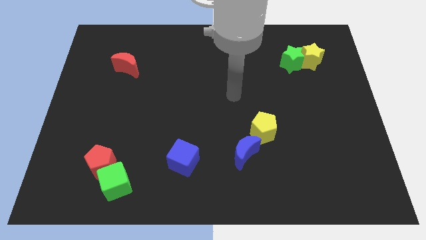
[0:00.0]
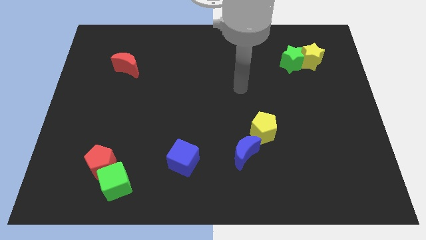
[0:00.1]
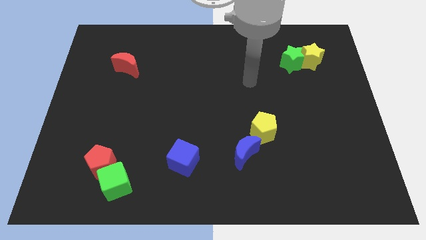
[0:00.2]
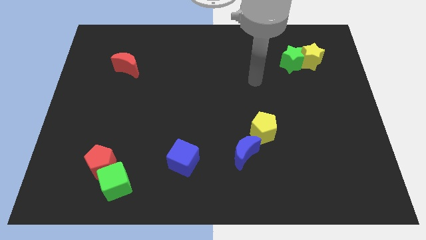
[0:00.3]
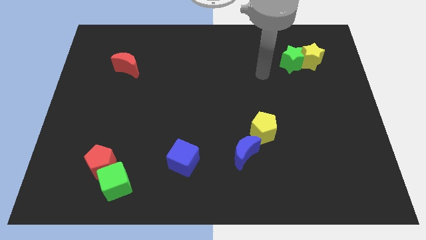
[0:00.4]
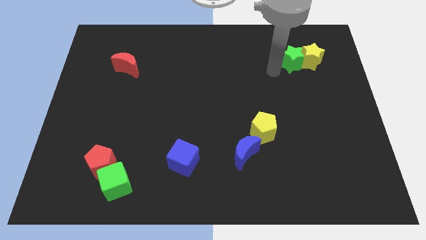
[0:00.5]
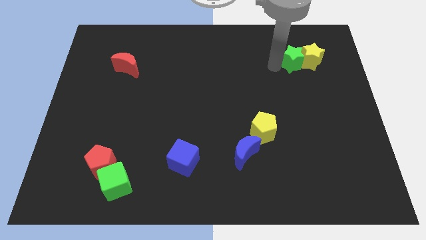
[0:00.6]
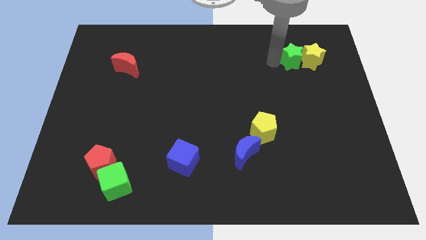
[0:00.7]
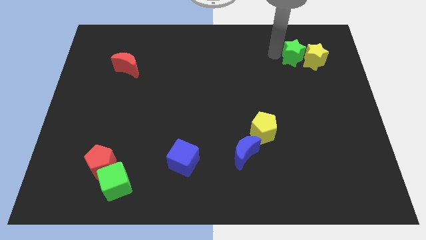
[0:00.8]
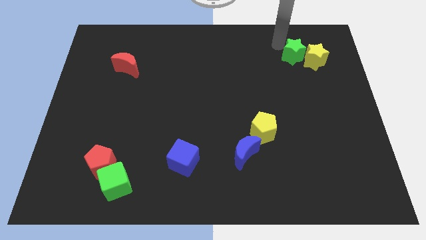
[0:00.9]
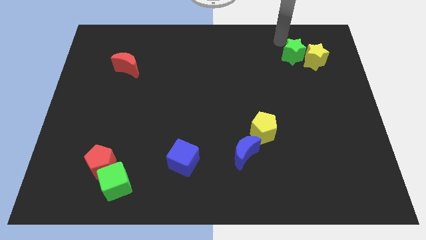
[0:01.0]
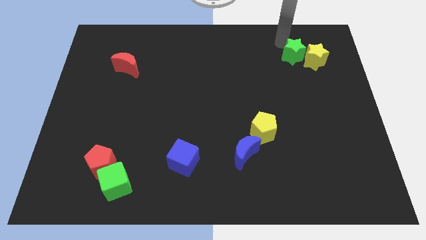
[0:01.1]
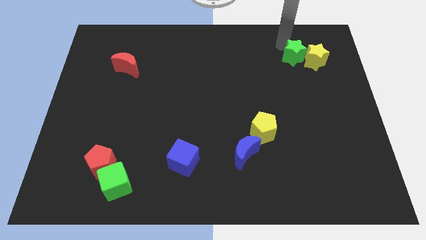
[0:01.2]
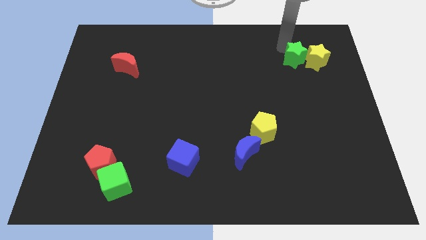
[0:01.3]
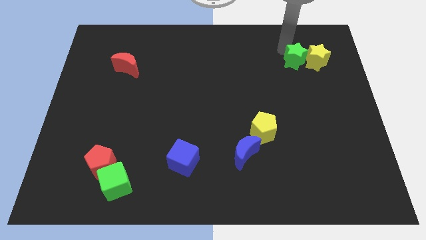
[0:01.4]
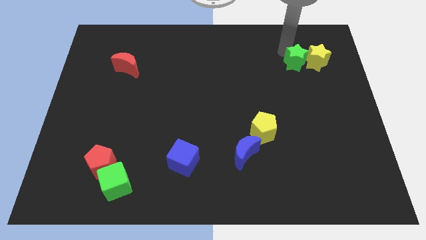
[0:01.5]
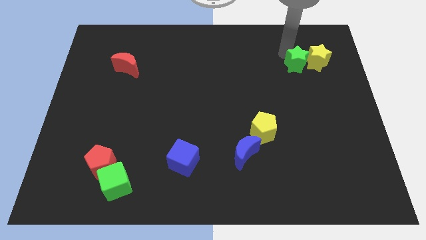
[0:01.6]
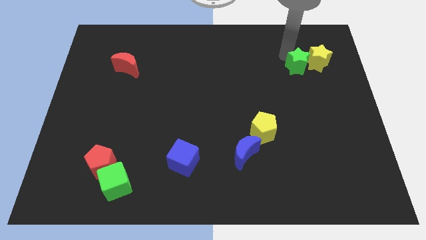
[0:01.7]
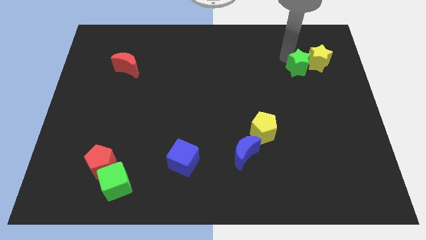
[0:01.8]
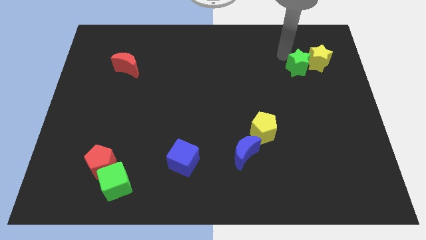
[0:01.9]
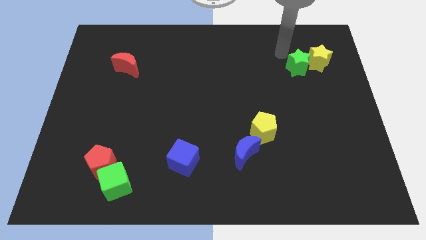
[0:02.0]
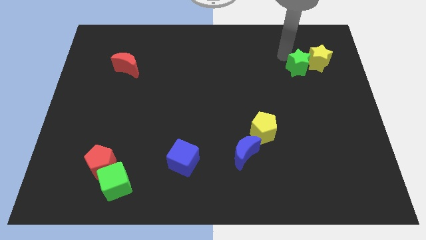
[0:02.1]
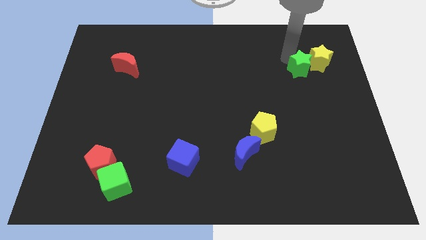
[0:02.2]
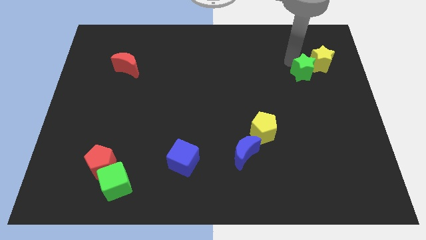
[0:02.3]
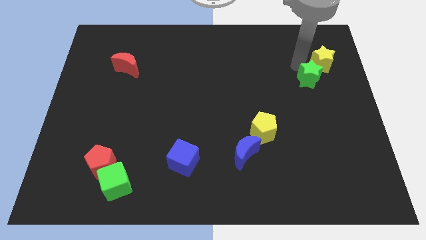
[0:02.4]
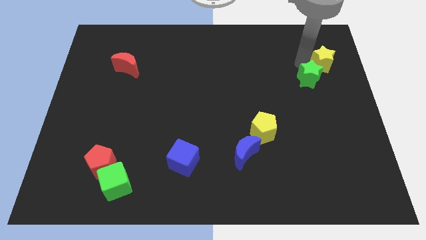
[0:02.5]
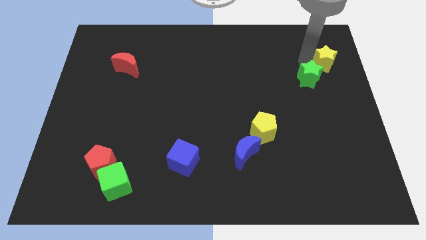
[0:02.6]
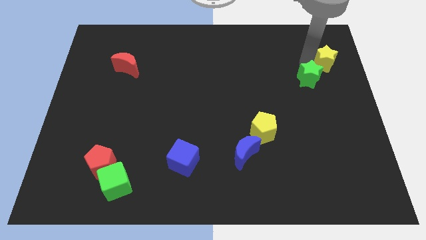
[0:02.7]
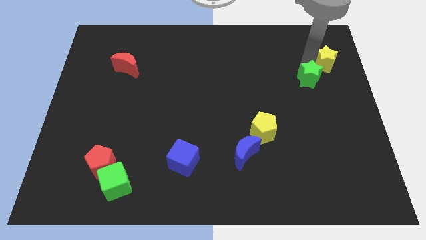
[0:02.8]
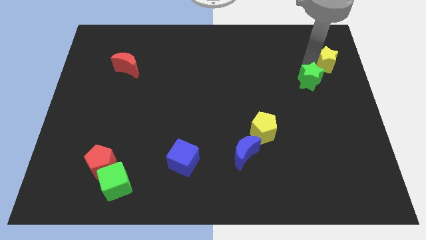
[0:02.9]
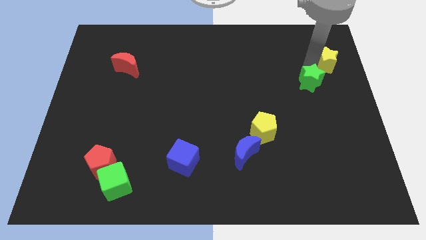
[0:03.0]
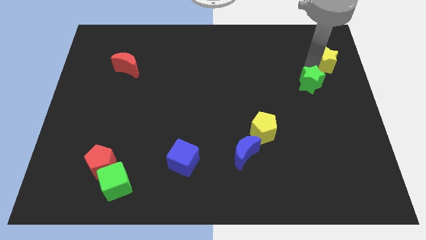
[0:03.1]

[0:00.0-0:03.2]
slide the green star somewhat downwards

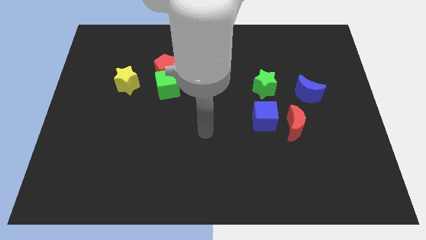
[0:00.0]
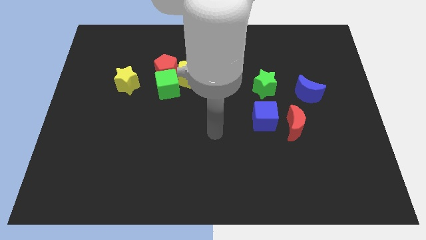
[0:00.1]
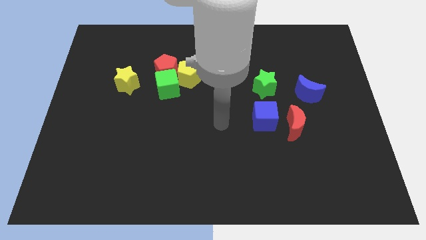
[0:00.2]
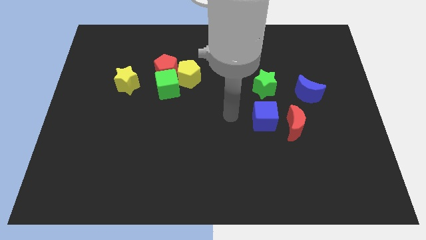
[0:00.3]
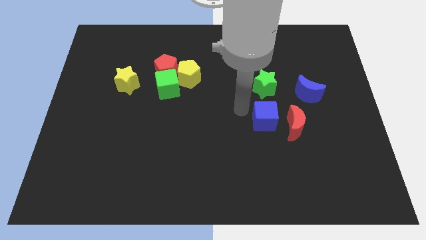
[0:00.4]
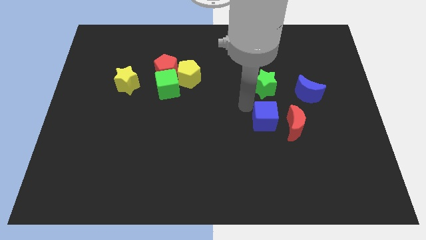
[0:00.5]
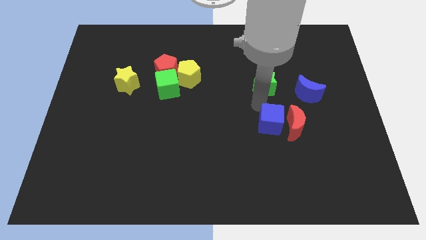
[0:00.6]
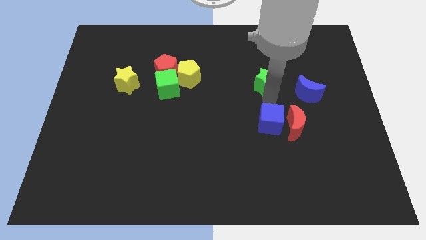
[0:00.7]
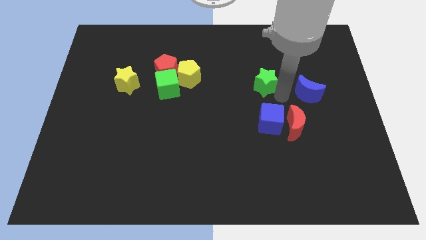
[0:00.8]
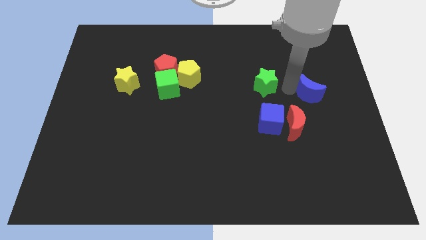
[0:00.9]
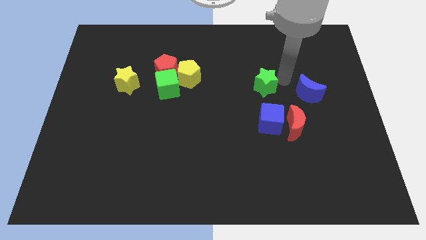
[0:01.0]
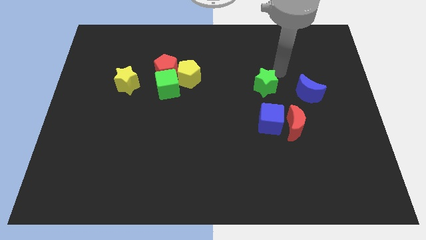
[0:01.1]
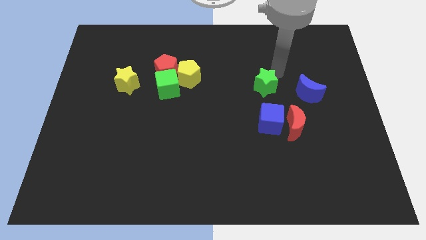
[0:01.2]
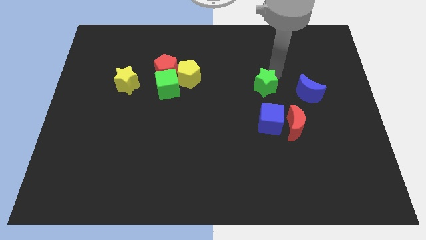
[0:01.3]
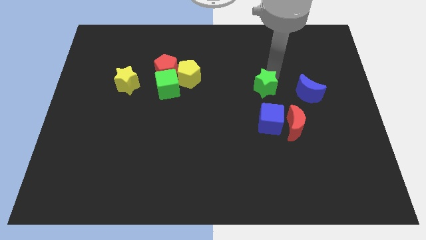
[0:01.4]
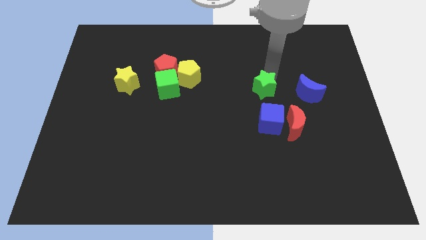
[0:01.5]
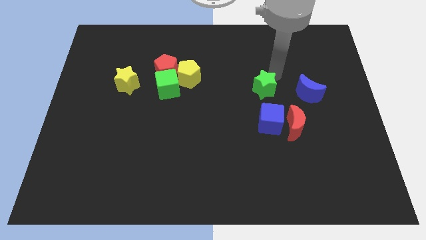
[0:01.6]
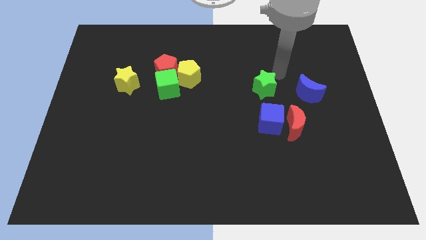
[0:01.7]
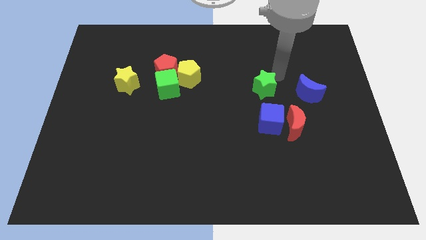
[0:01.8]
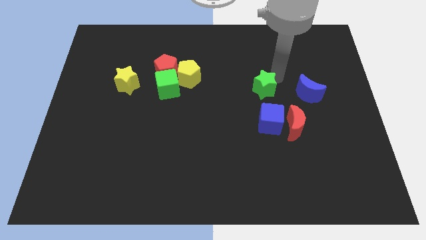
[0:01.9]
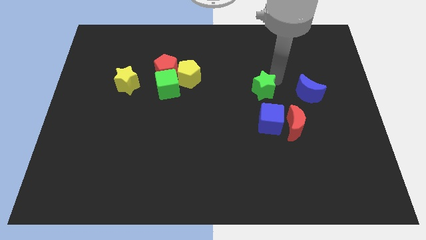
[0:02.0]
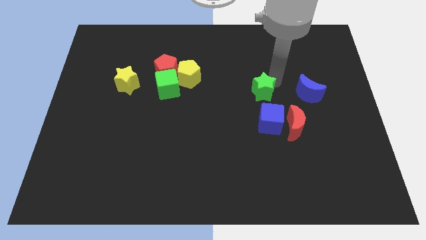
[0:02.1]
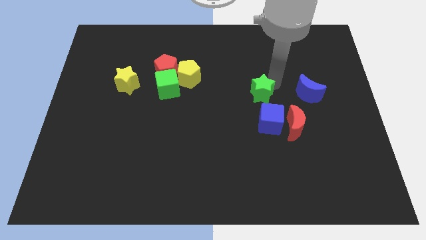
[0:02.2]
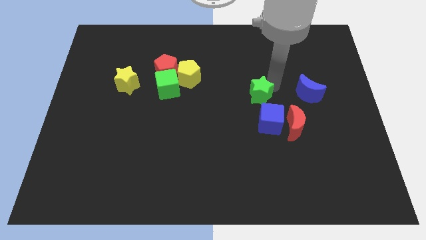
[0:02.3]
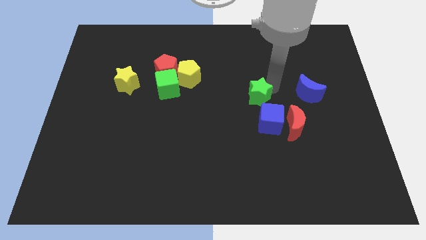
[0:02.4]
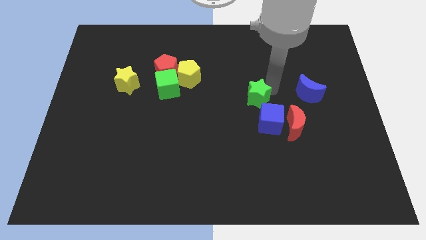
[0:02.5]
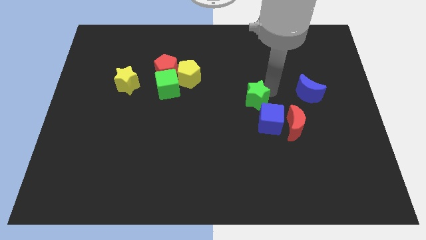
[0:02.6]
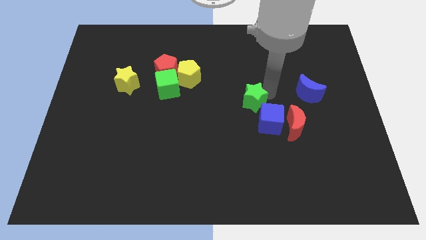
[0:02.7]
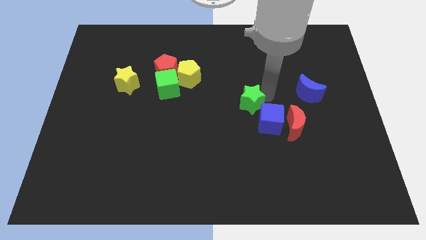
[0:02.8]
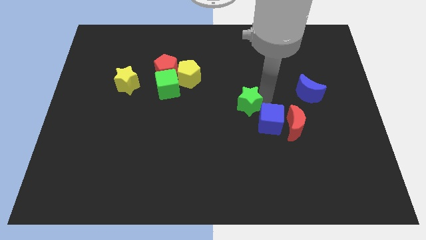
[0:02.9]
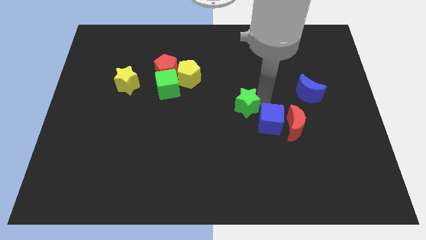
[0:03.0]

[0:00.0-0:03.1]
push the green star somewhat downwards and then left

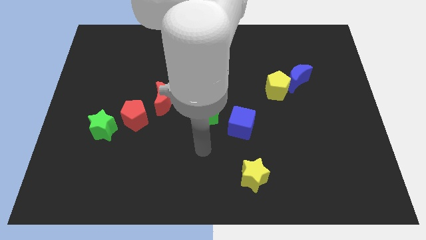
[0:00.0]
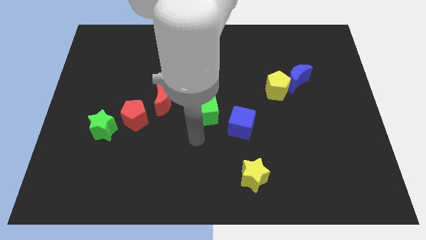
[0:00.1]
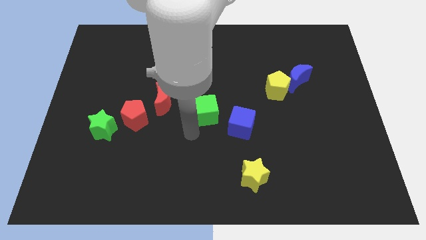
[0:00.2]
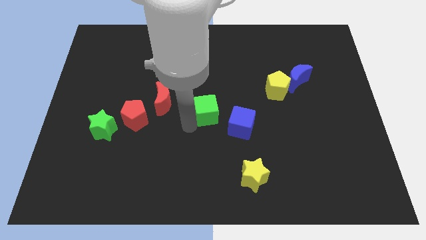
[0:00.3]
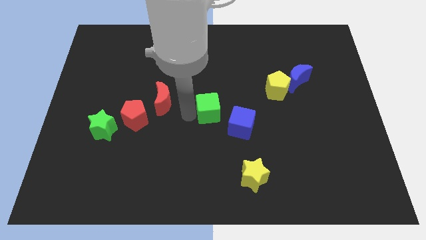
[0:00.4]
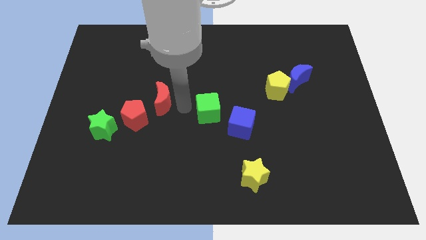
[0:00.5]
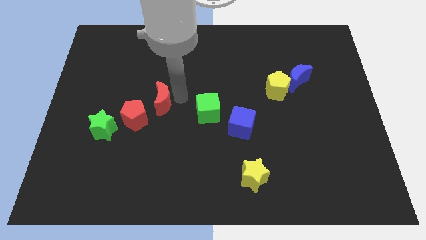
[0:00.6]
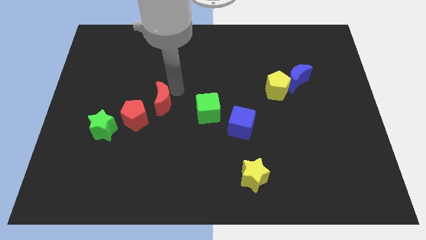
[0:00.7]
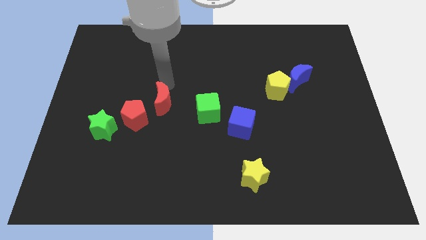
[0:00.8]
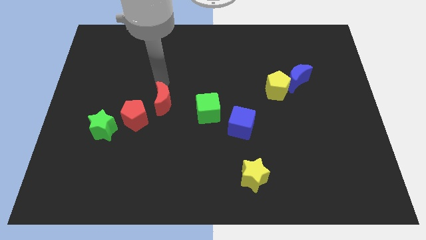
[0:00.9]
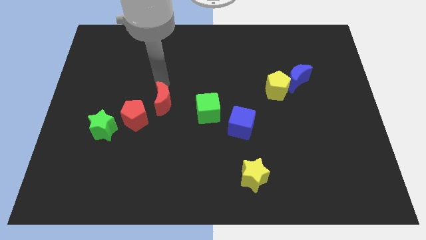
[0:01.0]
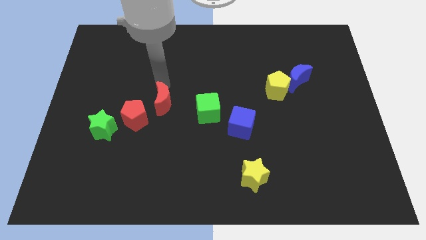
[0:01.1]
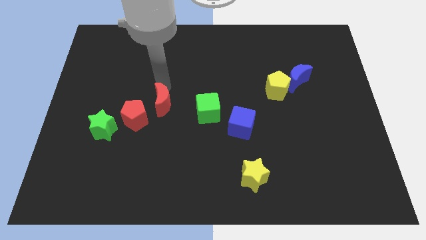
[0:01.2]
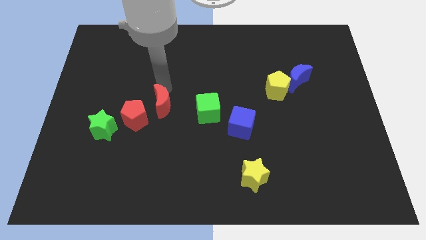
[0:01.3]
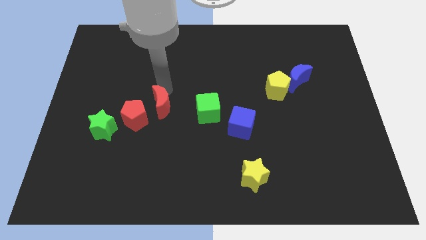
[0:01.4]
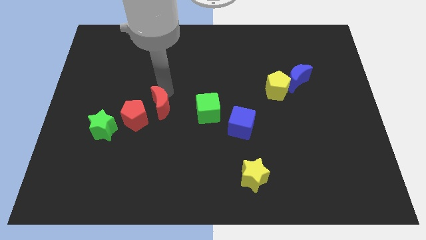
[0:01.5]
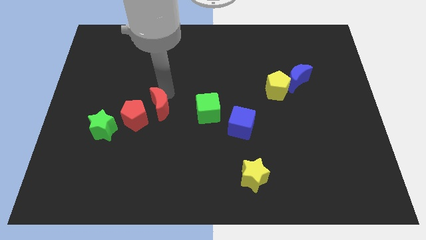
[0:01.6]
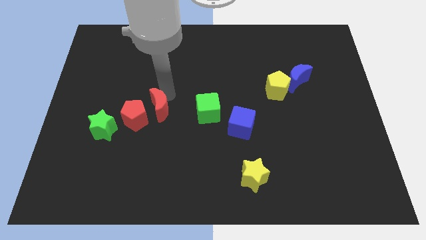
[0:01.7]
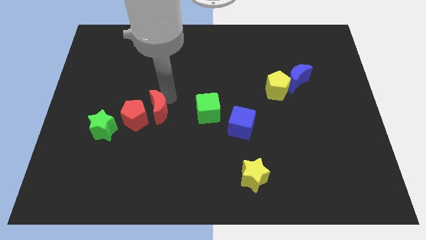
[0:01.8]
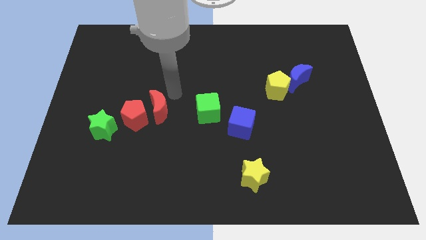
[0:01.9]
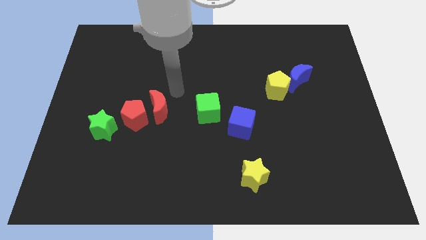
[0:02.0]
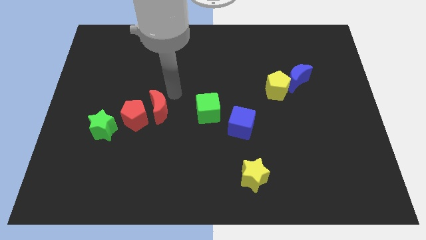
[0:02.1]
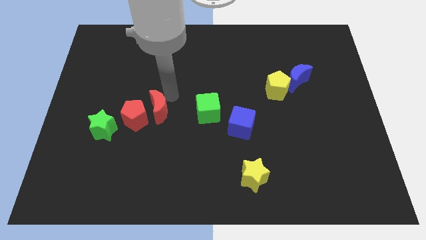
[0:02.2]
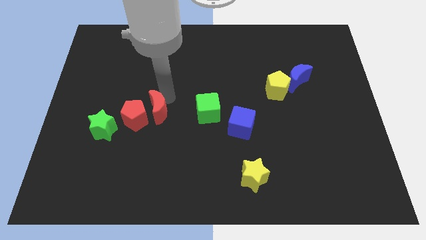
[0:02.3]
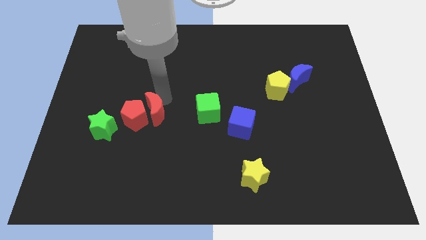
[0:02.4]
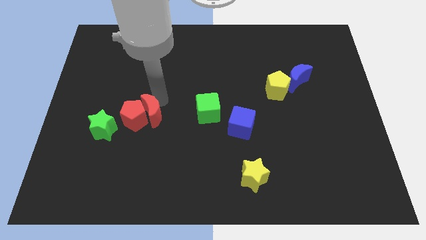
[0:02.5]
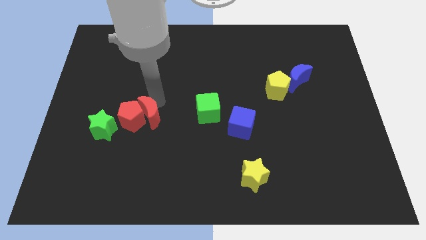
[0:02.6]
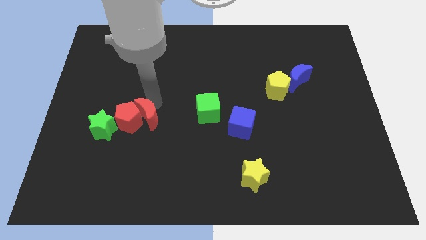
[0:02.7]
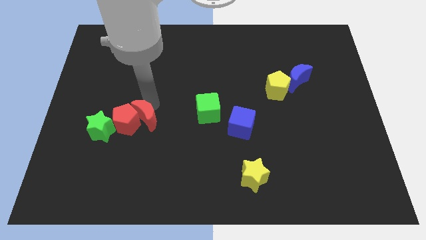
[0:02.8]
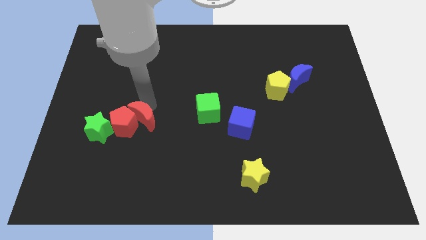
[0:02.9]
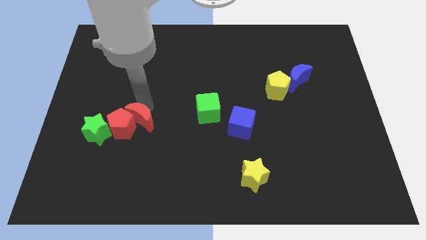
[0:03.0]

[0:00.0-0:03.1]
push the red moon down and then to the left slightly
